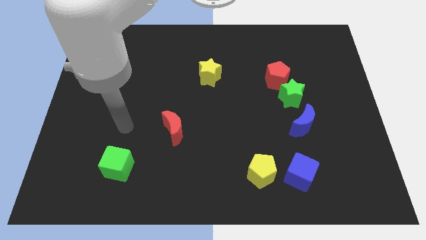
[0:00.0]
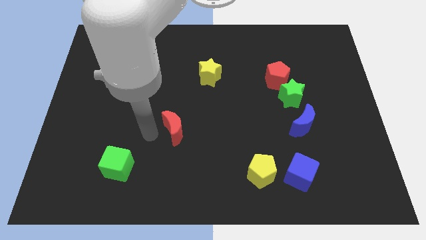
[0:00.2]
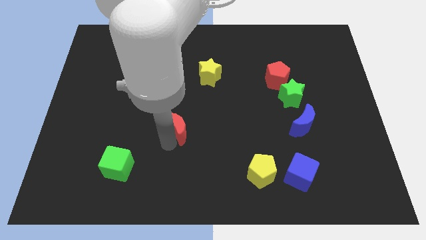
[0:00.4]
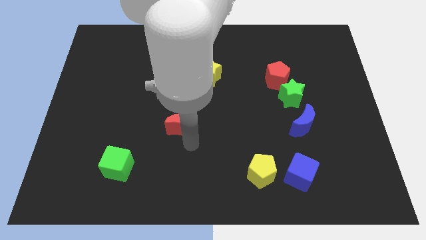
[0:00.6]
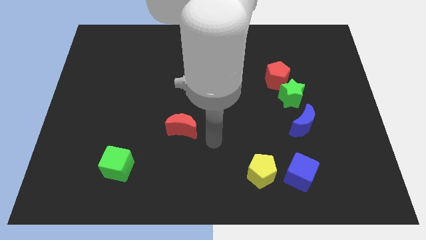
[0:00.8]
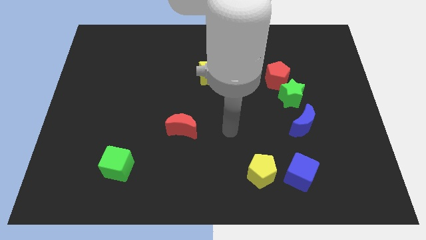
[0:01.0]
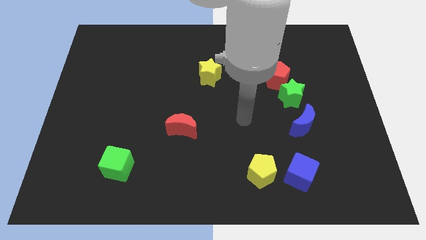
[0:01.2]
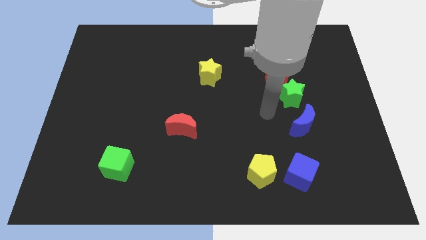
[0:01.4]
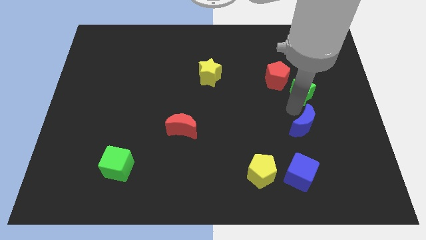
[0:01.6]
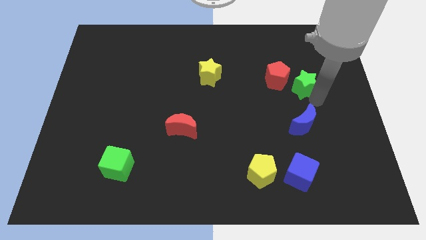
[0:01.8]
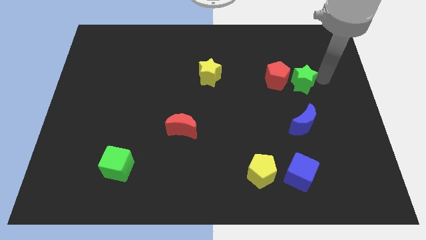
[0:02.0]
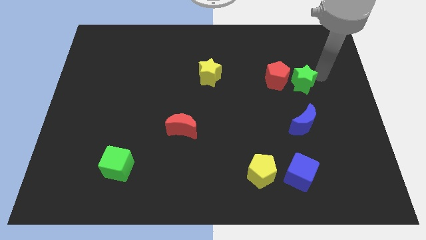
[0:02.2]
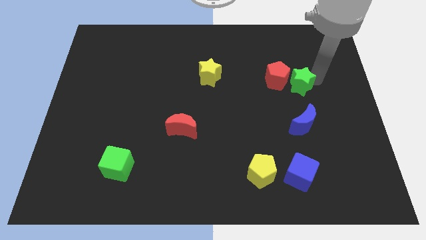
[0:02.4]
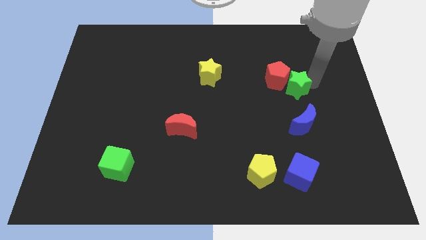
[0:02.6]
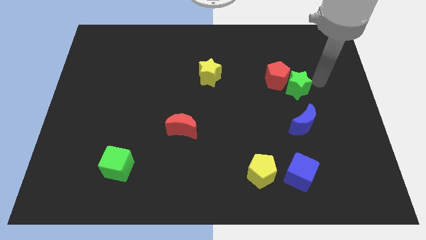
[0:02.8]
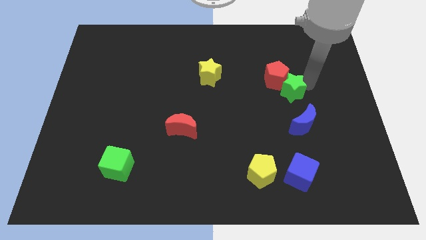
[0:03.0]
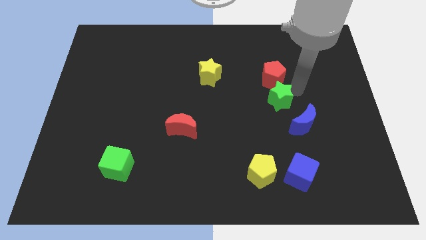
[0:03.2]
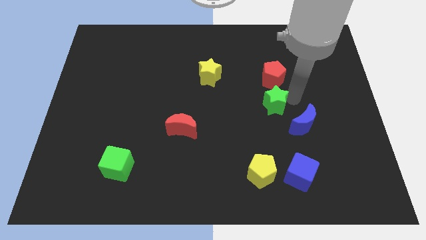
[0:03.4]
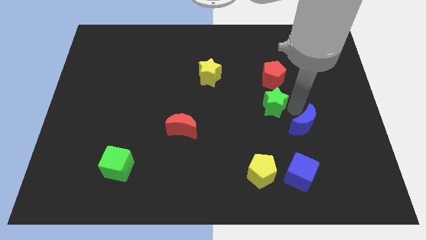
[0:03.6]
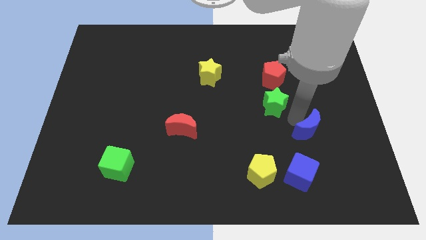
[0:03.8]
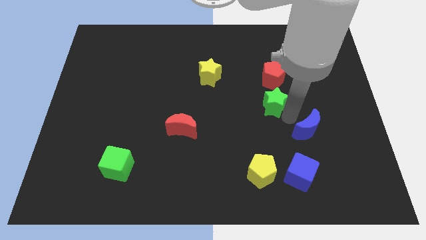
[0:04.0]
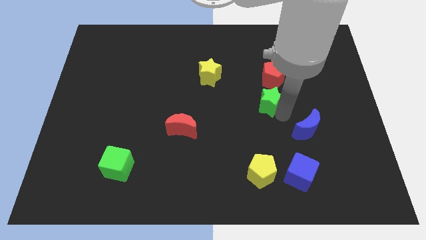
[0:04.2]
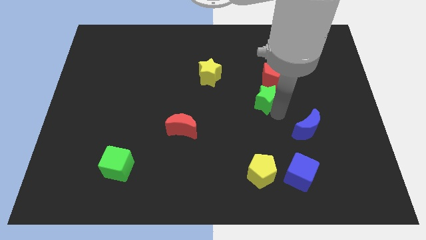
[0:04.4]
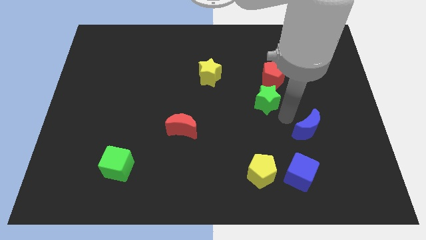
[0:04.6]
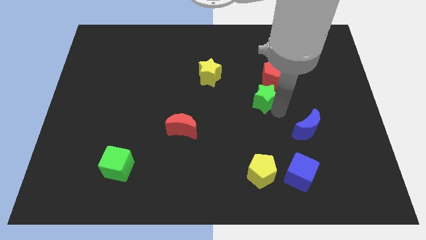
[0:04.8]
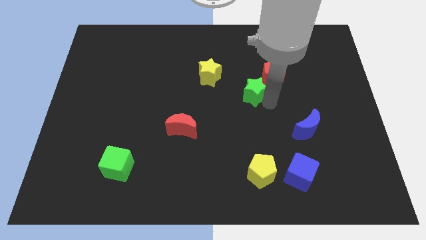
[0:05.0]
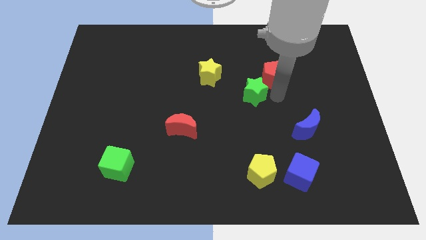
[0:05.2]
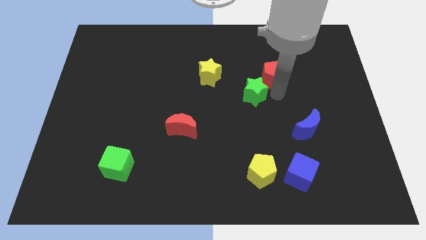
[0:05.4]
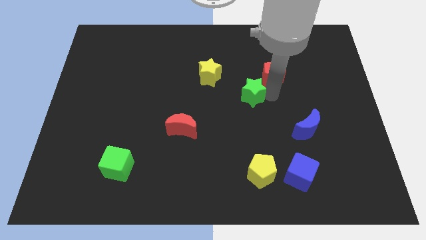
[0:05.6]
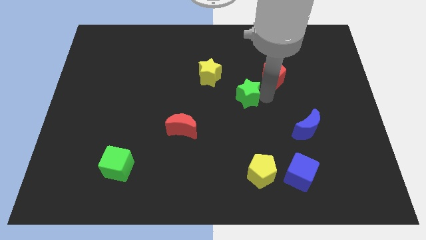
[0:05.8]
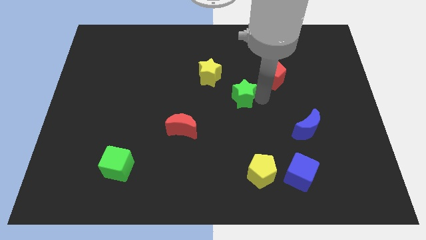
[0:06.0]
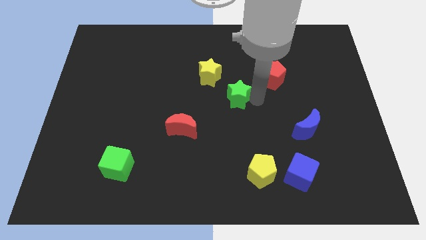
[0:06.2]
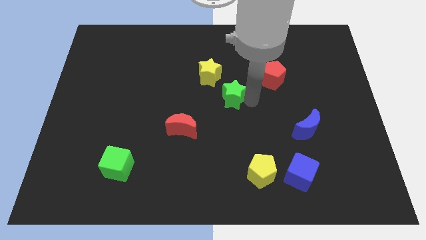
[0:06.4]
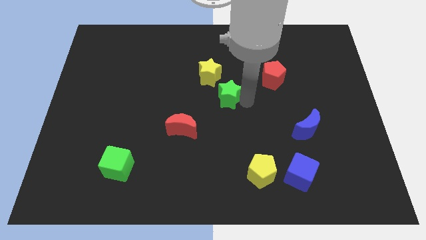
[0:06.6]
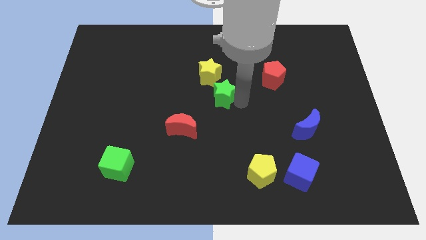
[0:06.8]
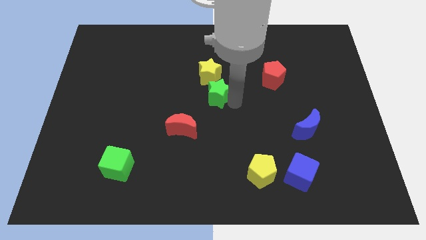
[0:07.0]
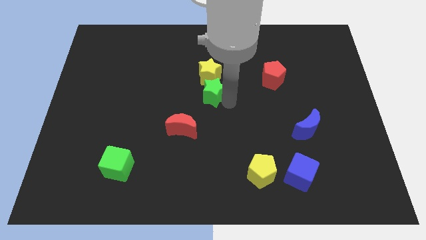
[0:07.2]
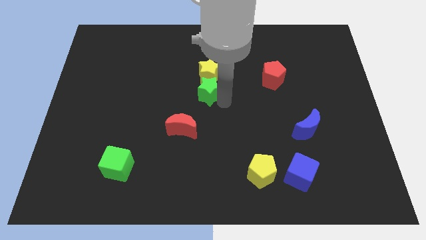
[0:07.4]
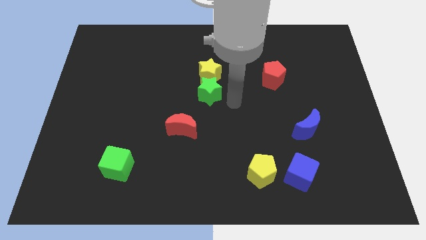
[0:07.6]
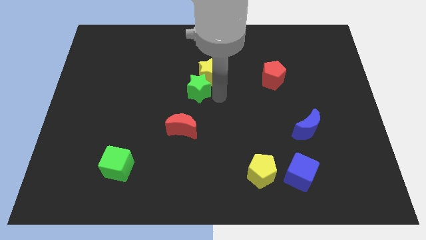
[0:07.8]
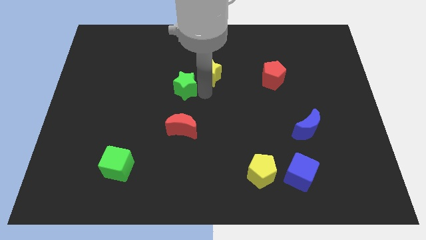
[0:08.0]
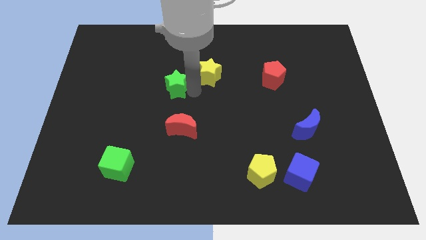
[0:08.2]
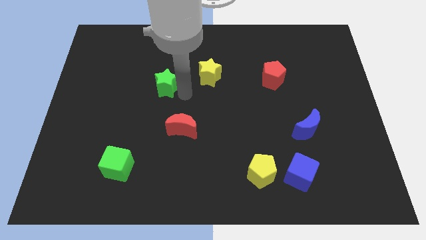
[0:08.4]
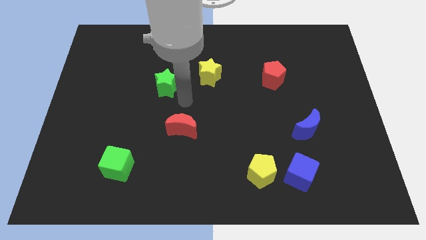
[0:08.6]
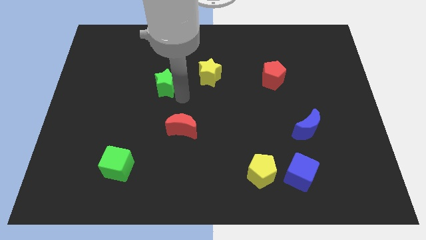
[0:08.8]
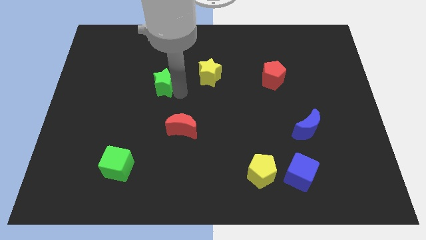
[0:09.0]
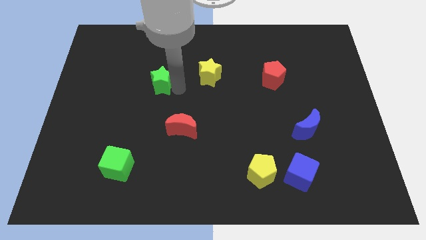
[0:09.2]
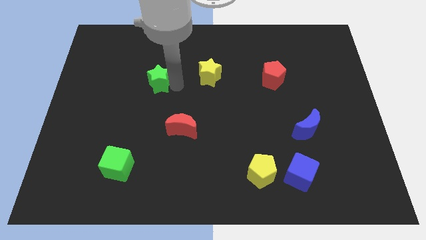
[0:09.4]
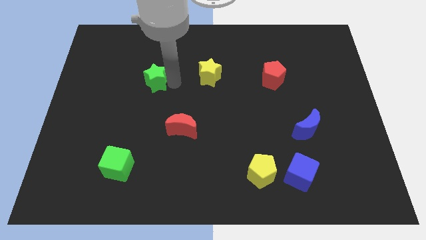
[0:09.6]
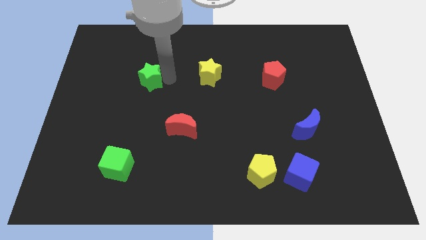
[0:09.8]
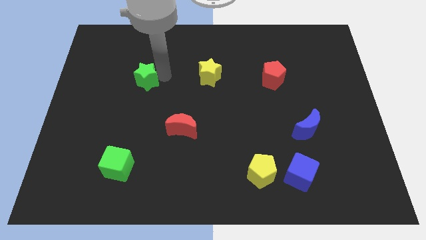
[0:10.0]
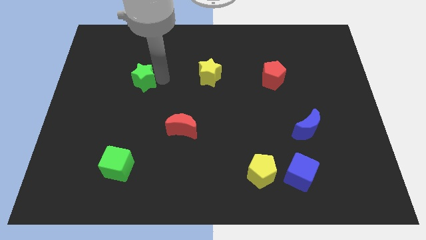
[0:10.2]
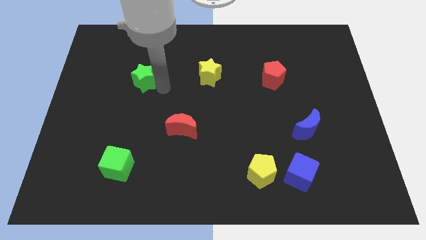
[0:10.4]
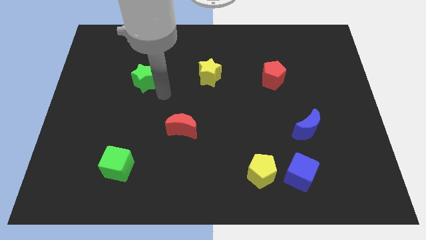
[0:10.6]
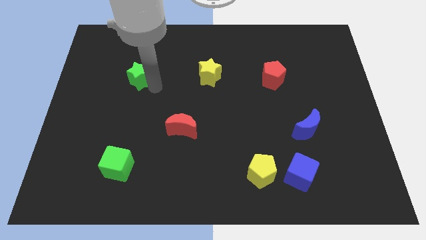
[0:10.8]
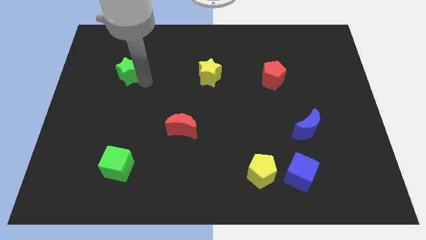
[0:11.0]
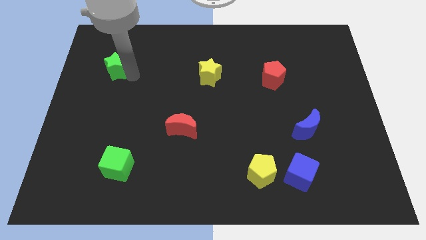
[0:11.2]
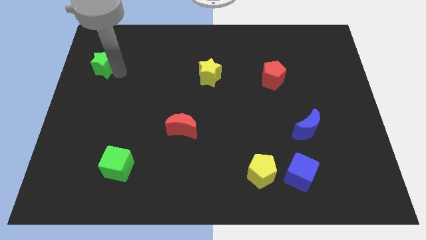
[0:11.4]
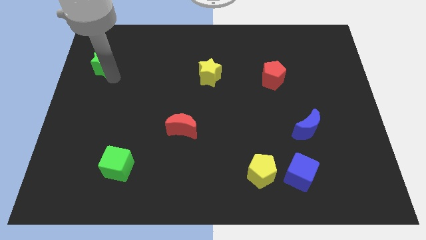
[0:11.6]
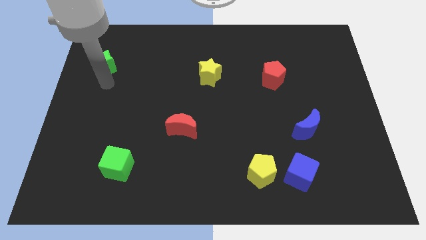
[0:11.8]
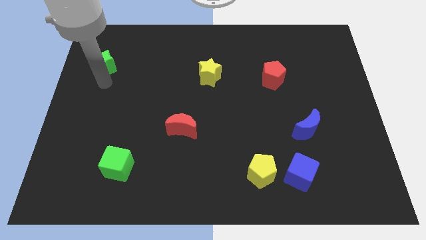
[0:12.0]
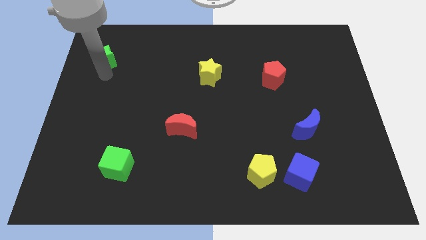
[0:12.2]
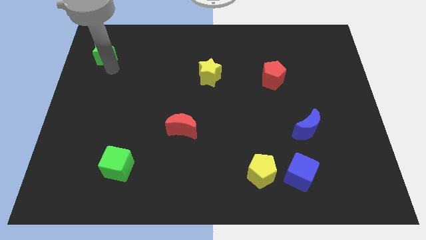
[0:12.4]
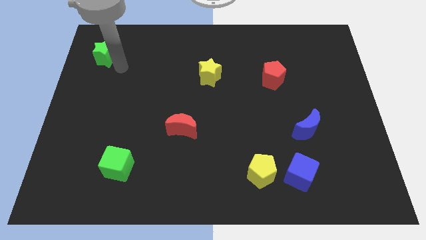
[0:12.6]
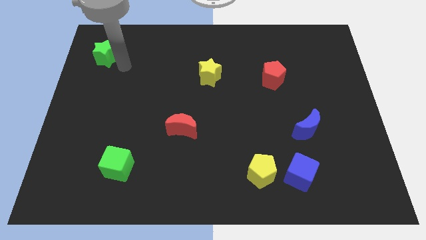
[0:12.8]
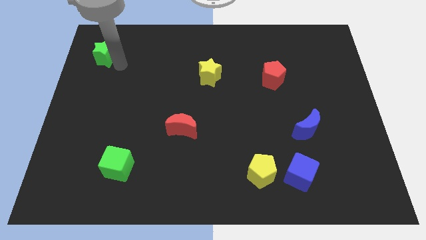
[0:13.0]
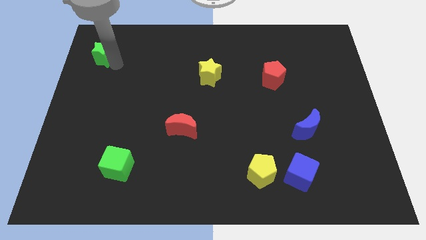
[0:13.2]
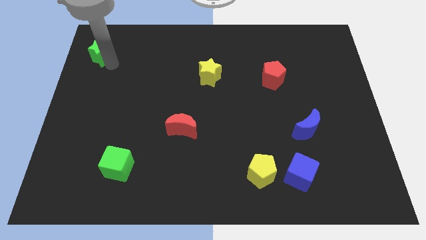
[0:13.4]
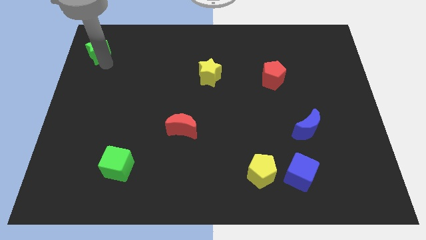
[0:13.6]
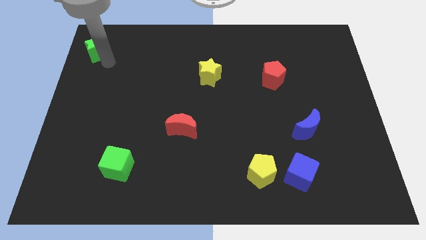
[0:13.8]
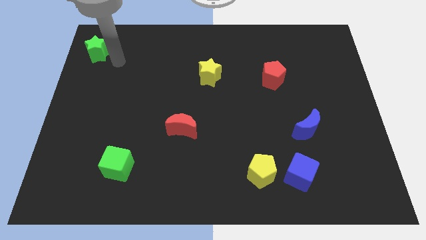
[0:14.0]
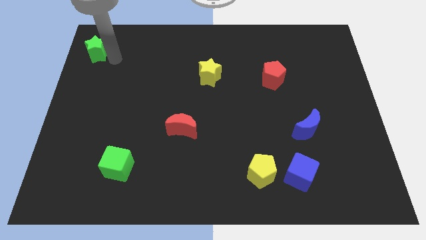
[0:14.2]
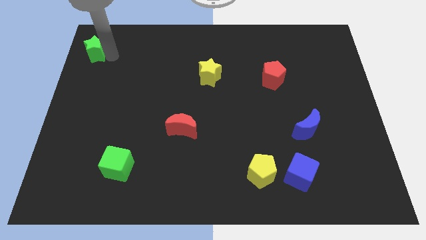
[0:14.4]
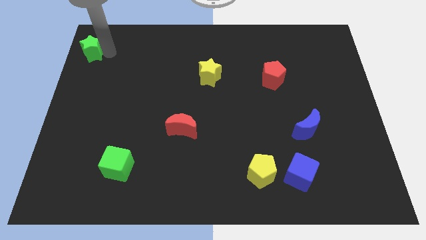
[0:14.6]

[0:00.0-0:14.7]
push the green star to the top left of the board
